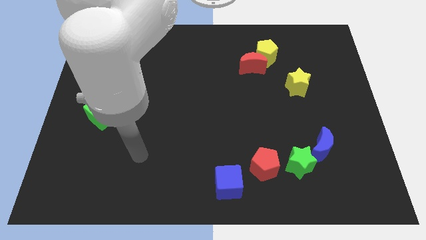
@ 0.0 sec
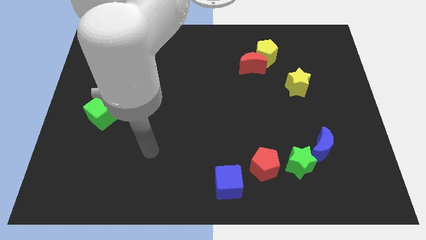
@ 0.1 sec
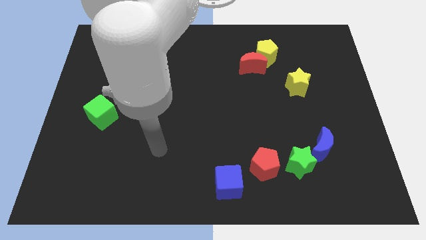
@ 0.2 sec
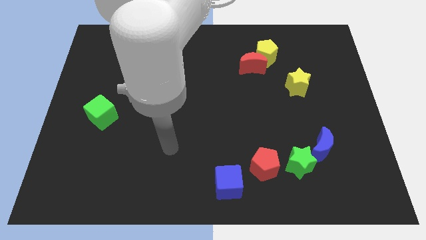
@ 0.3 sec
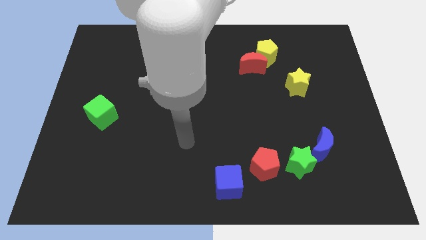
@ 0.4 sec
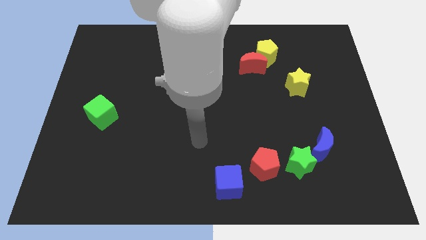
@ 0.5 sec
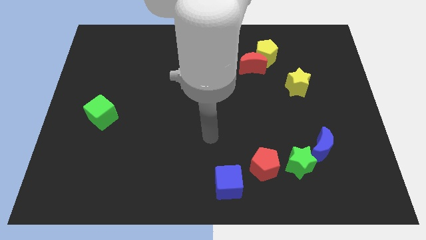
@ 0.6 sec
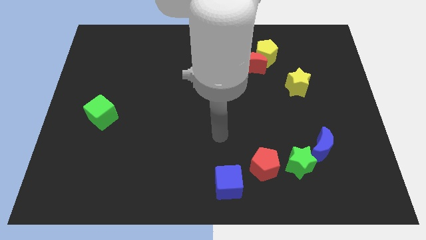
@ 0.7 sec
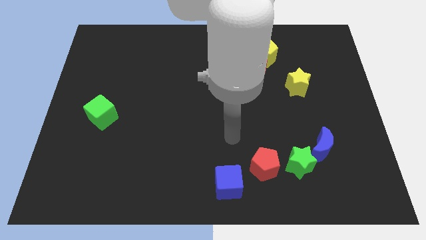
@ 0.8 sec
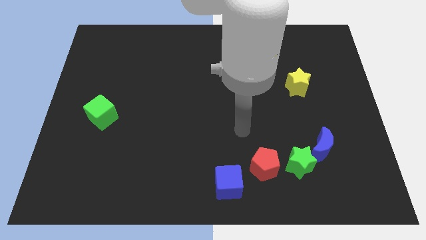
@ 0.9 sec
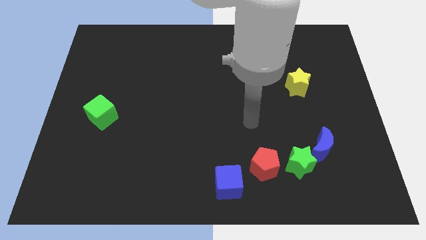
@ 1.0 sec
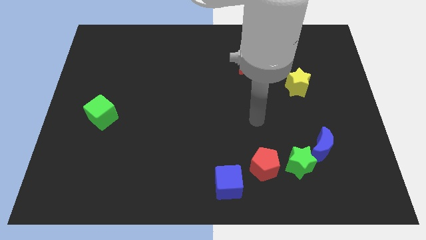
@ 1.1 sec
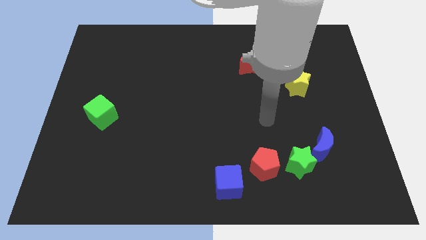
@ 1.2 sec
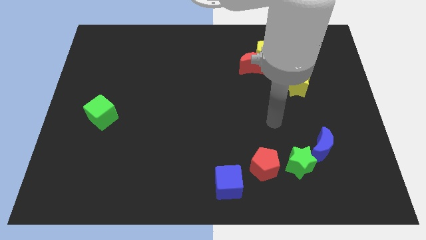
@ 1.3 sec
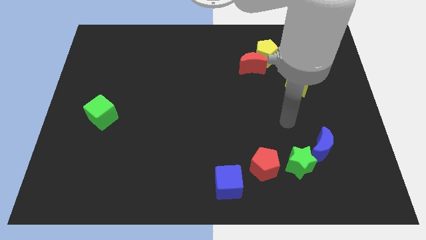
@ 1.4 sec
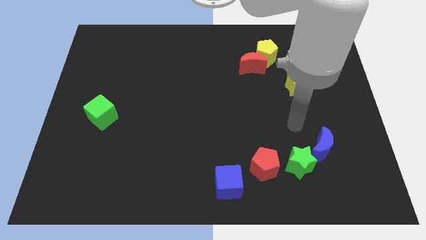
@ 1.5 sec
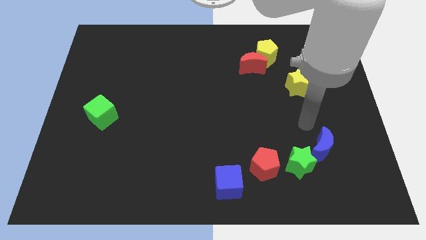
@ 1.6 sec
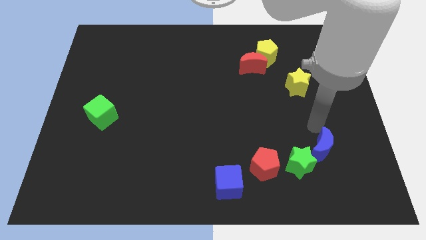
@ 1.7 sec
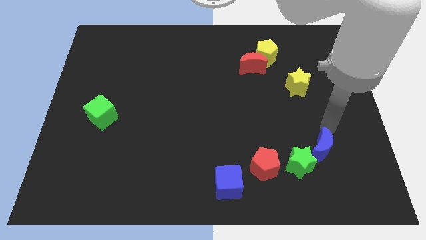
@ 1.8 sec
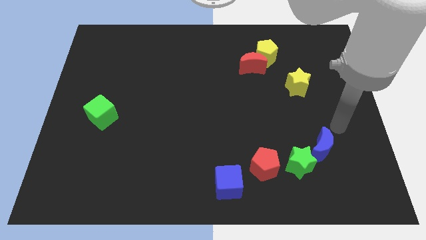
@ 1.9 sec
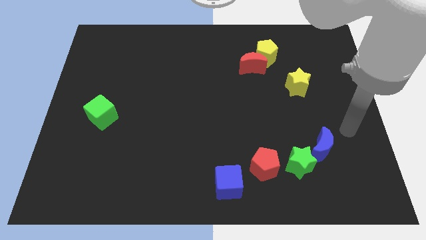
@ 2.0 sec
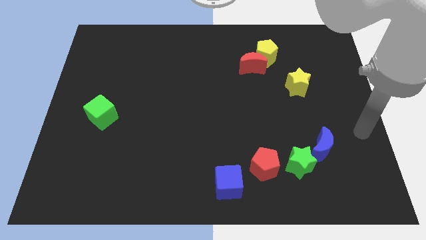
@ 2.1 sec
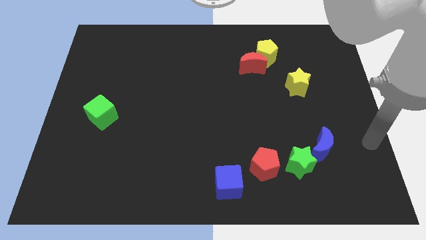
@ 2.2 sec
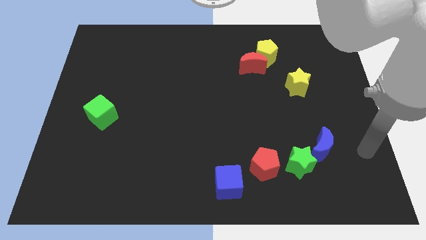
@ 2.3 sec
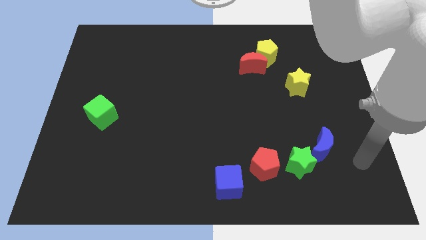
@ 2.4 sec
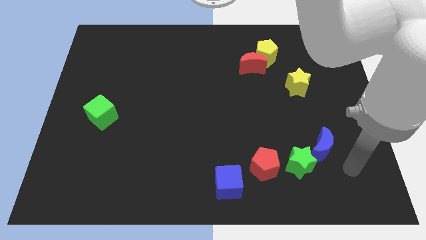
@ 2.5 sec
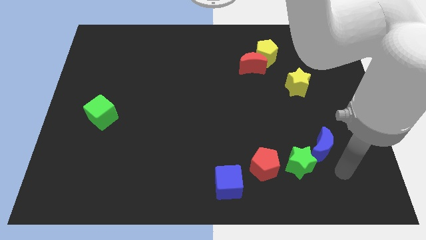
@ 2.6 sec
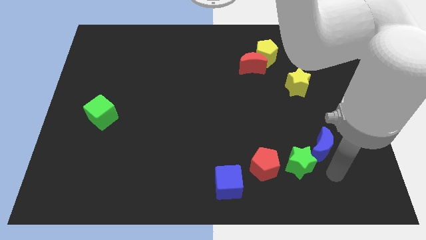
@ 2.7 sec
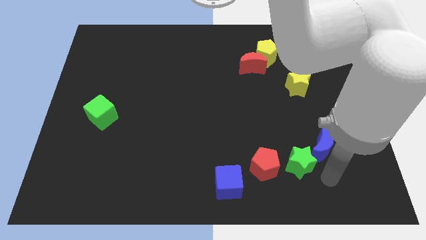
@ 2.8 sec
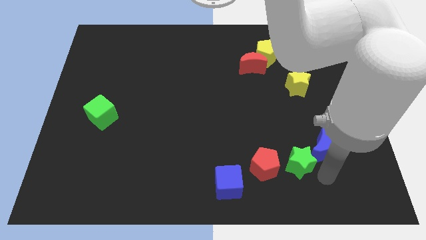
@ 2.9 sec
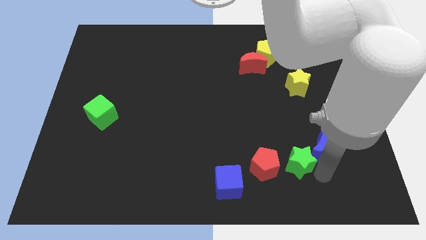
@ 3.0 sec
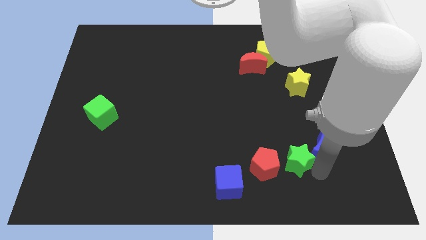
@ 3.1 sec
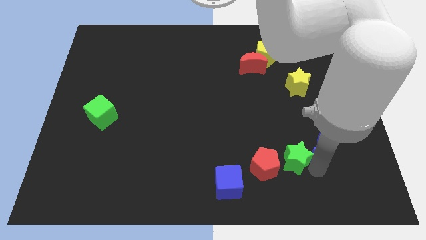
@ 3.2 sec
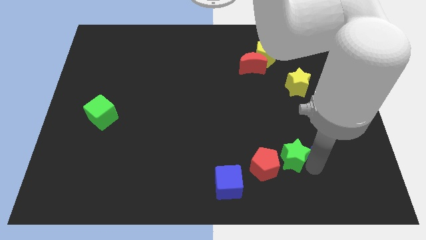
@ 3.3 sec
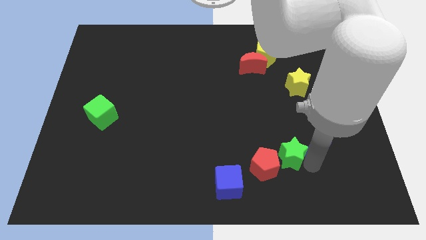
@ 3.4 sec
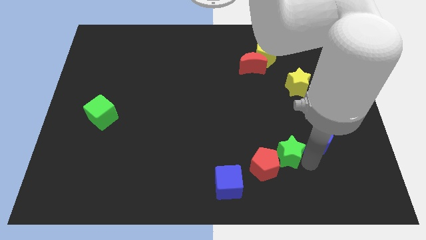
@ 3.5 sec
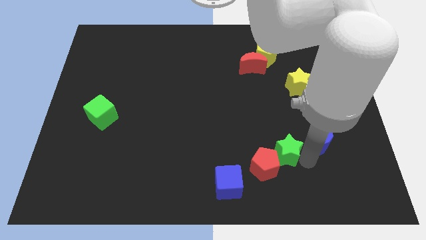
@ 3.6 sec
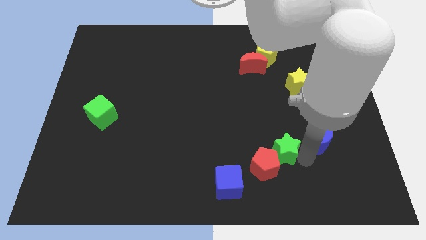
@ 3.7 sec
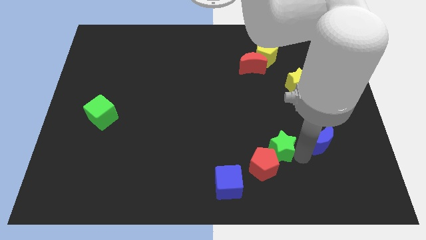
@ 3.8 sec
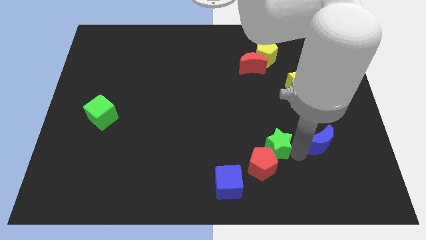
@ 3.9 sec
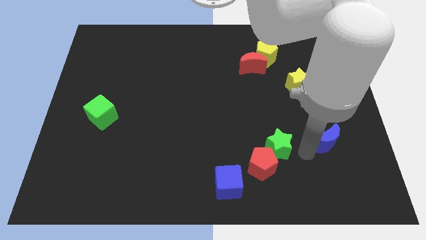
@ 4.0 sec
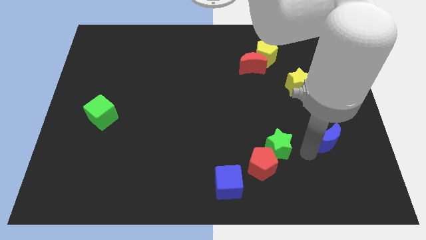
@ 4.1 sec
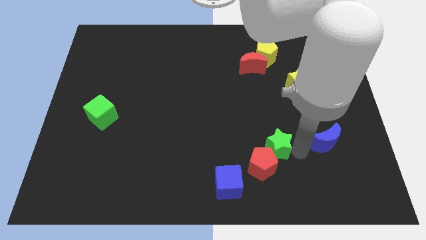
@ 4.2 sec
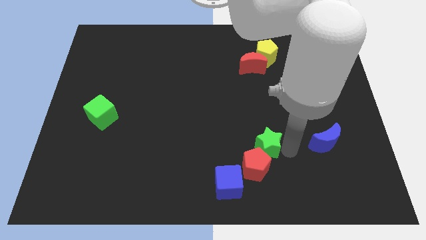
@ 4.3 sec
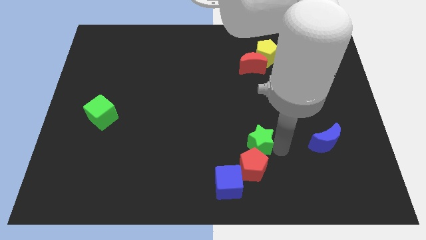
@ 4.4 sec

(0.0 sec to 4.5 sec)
slightly slide the green star left

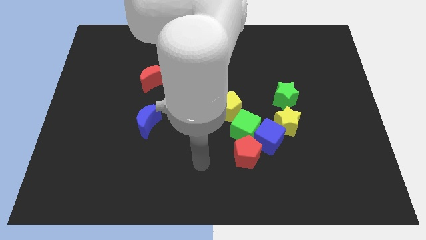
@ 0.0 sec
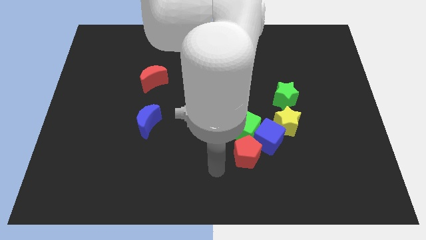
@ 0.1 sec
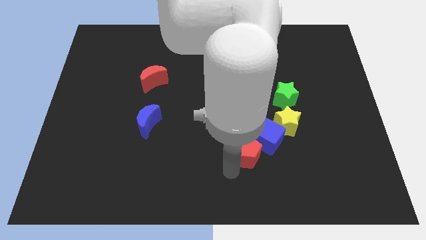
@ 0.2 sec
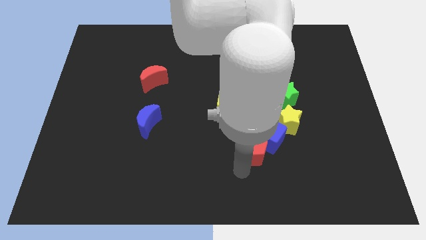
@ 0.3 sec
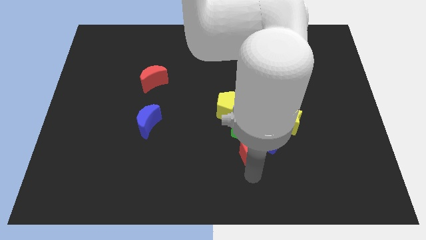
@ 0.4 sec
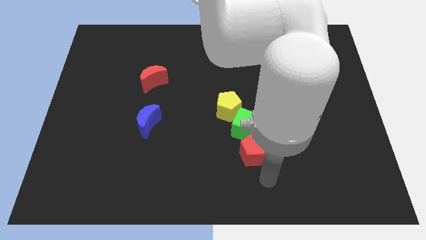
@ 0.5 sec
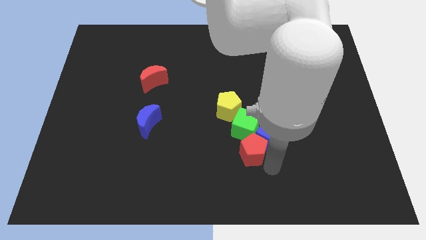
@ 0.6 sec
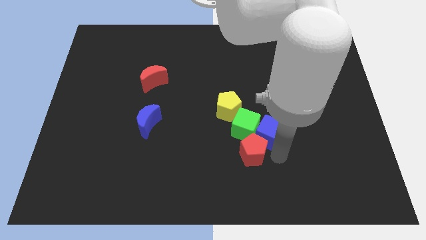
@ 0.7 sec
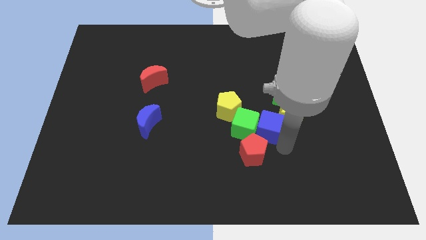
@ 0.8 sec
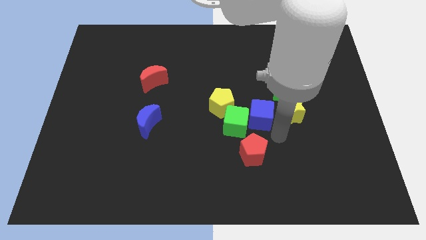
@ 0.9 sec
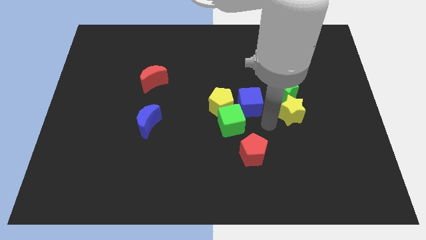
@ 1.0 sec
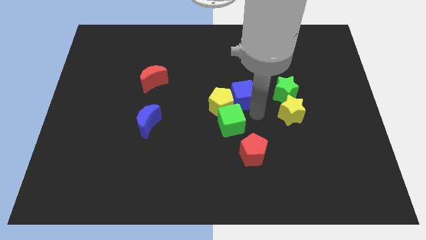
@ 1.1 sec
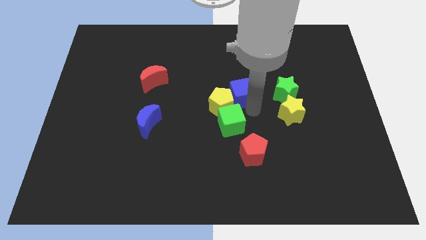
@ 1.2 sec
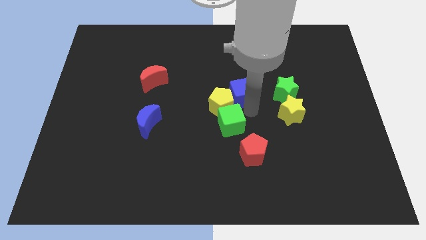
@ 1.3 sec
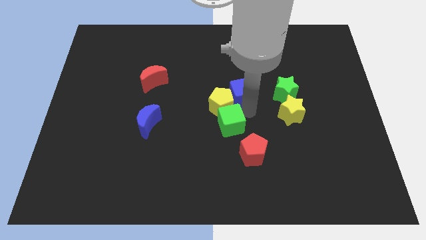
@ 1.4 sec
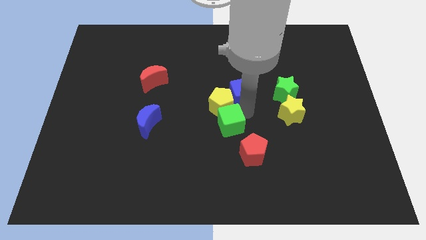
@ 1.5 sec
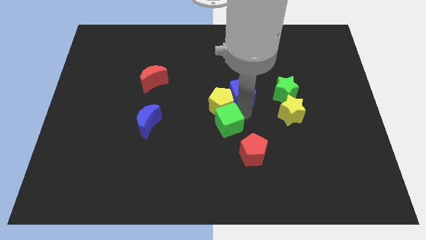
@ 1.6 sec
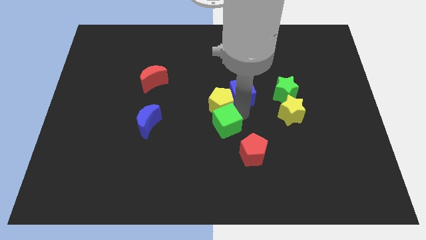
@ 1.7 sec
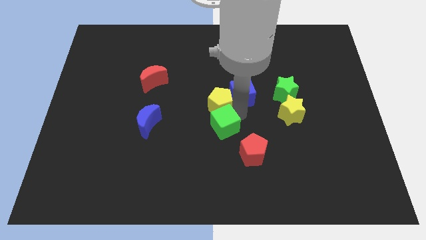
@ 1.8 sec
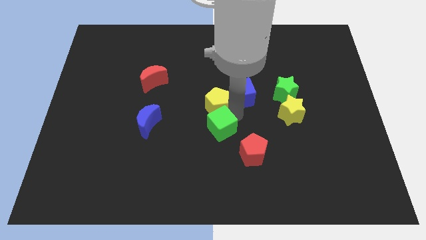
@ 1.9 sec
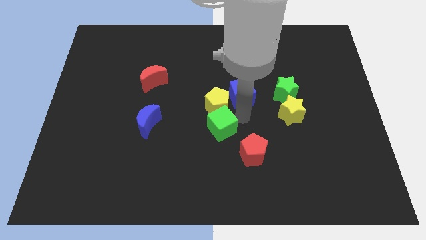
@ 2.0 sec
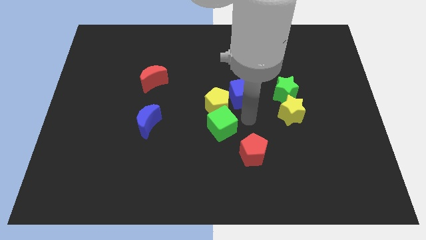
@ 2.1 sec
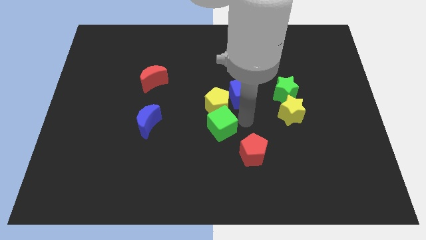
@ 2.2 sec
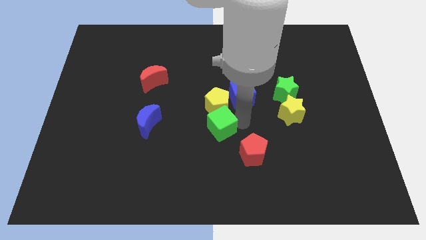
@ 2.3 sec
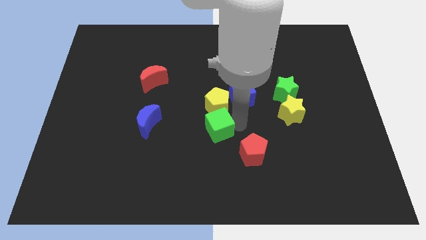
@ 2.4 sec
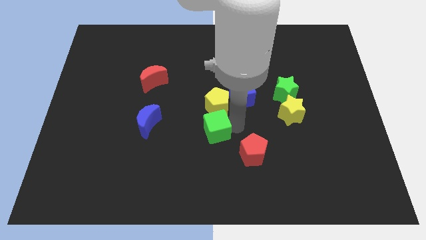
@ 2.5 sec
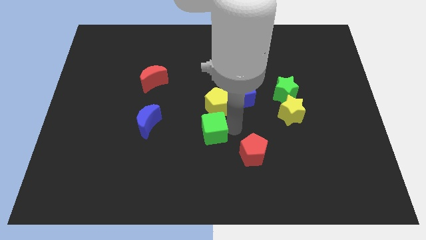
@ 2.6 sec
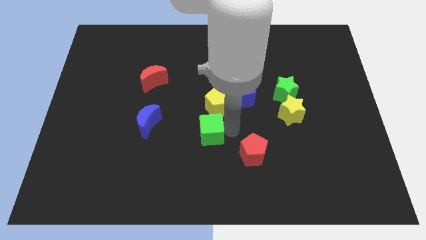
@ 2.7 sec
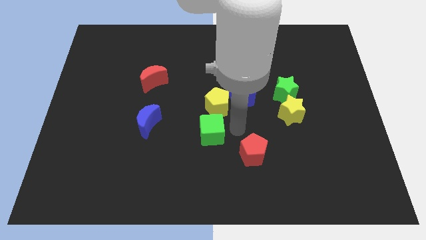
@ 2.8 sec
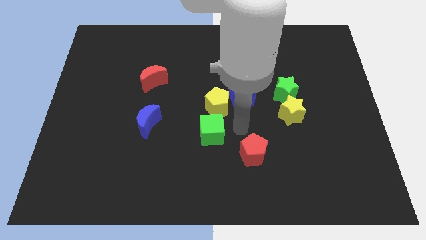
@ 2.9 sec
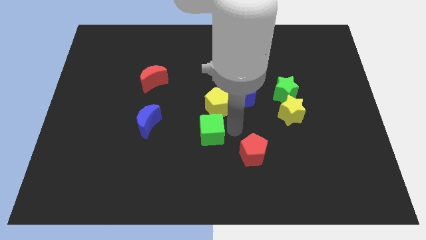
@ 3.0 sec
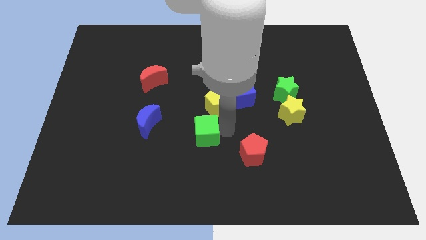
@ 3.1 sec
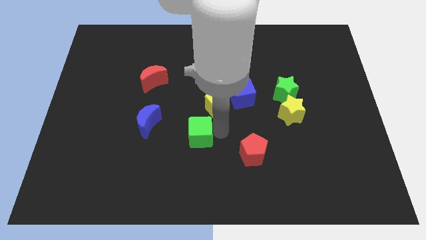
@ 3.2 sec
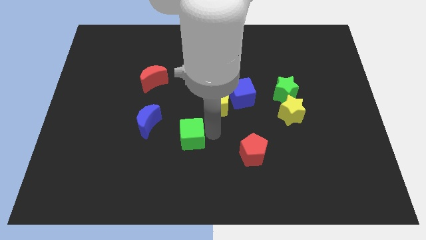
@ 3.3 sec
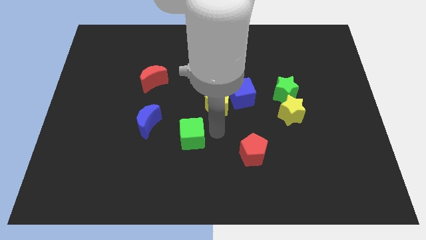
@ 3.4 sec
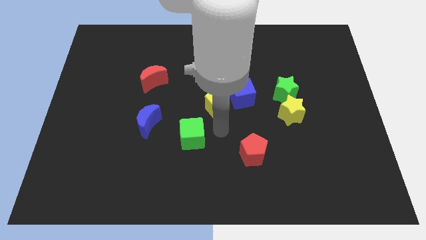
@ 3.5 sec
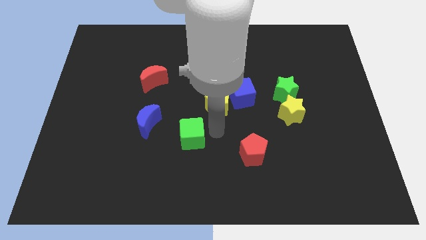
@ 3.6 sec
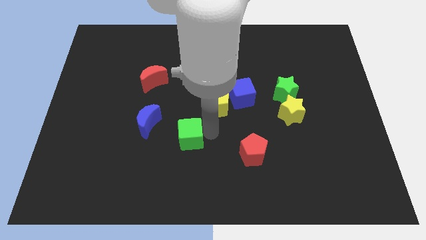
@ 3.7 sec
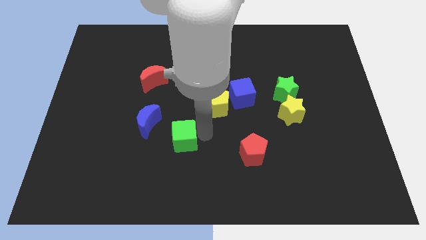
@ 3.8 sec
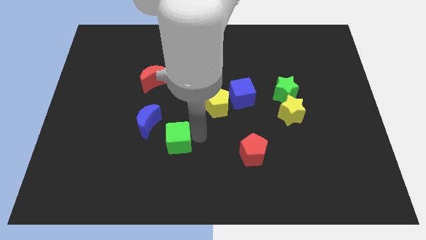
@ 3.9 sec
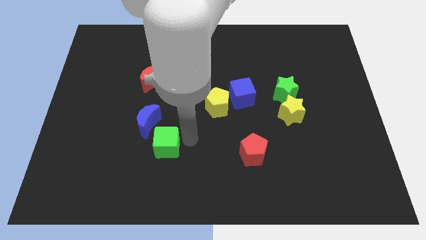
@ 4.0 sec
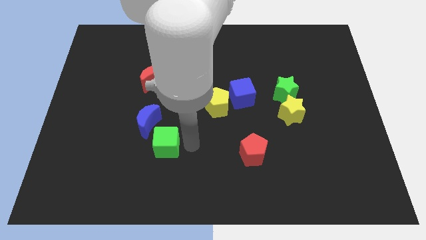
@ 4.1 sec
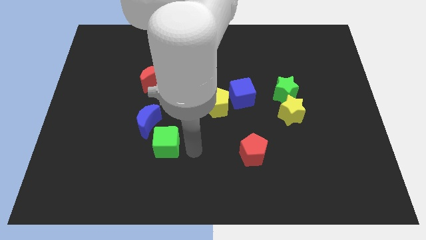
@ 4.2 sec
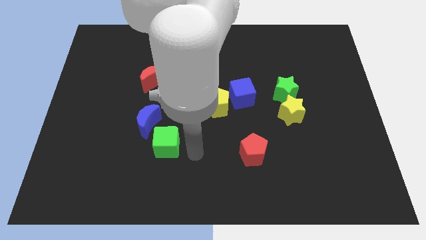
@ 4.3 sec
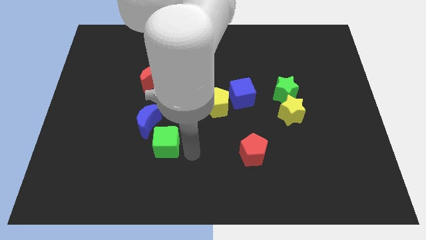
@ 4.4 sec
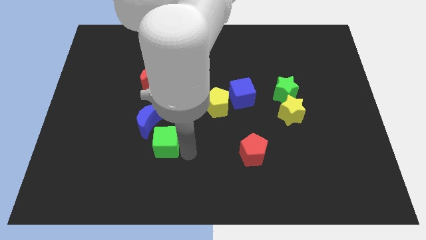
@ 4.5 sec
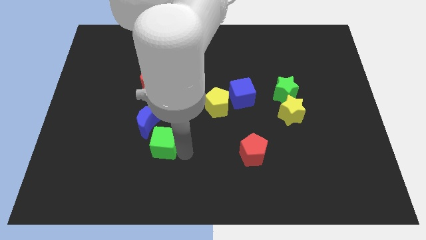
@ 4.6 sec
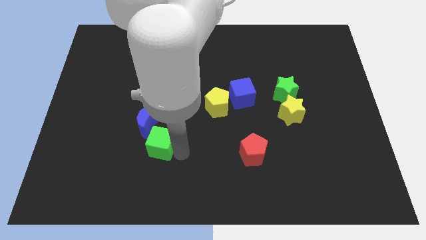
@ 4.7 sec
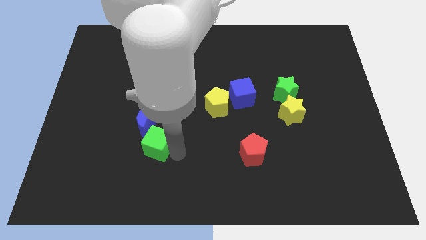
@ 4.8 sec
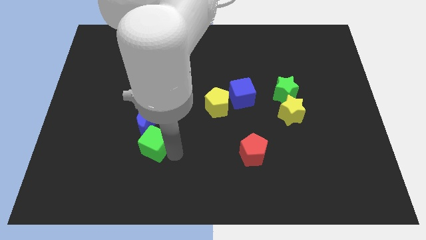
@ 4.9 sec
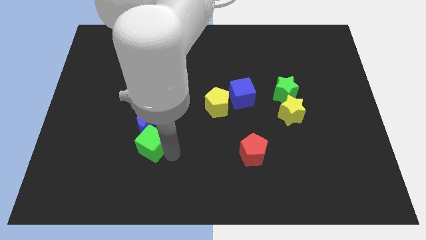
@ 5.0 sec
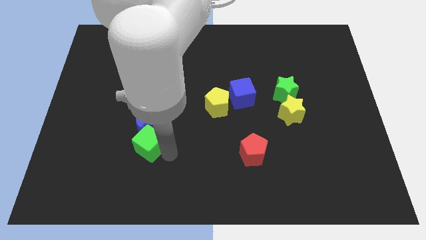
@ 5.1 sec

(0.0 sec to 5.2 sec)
slide the green cube left
